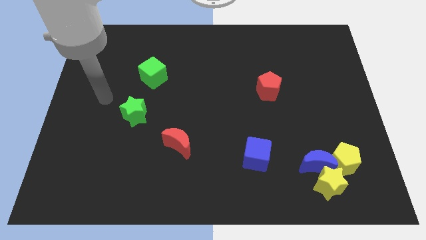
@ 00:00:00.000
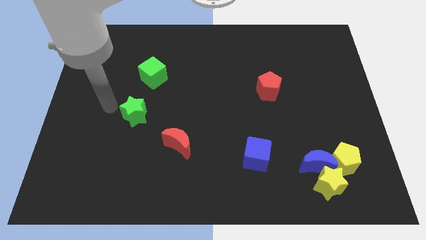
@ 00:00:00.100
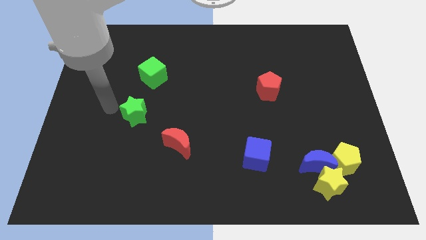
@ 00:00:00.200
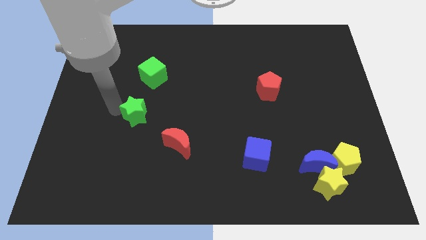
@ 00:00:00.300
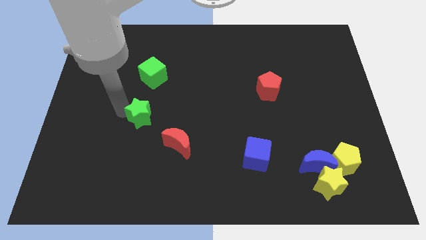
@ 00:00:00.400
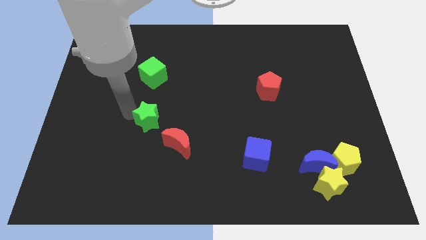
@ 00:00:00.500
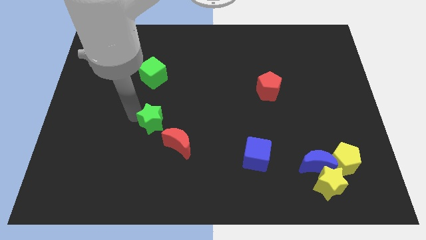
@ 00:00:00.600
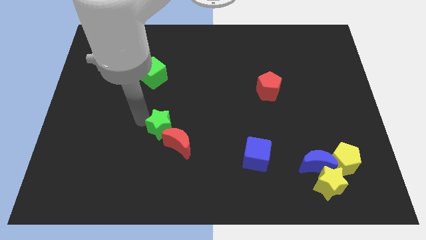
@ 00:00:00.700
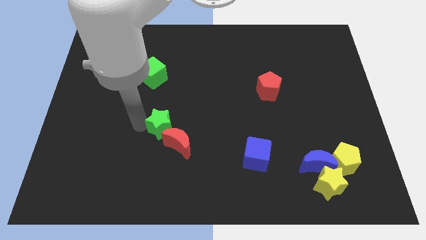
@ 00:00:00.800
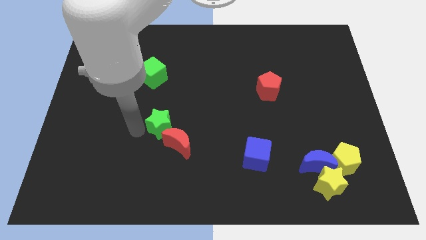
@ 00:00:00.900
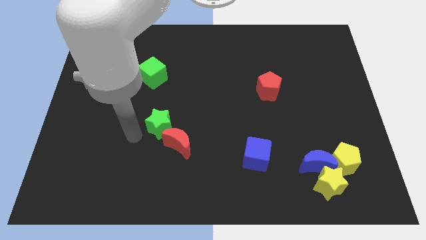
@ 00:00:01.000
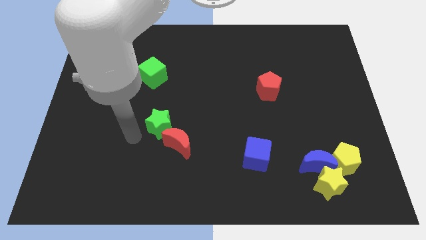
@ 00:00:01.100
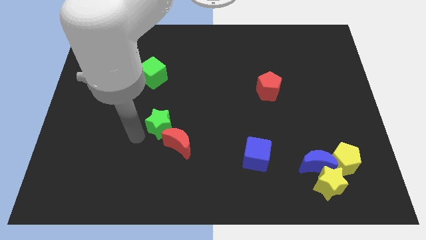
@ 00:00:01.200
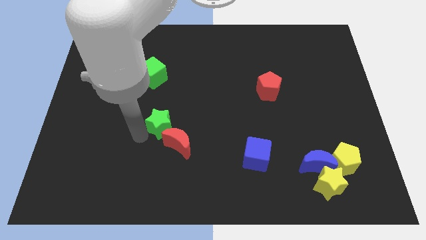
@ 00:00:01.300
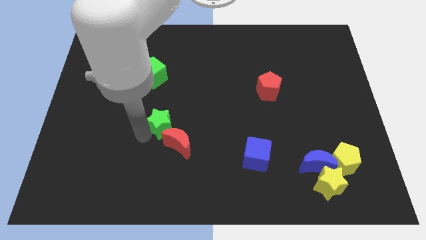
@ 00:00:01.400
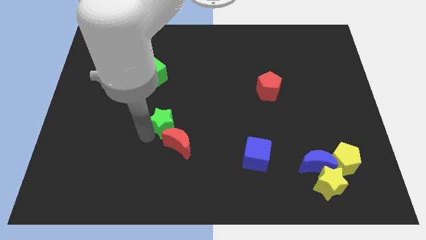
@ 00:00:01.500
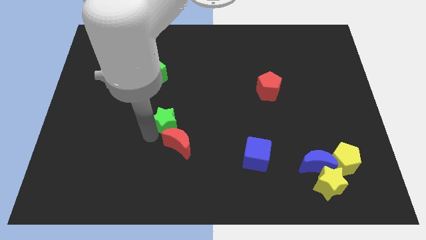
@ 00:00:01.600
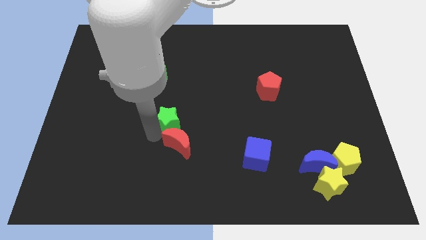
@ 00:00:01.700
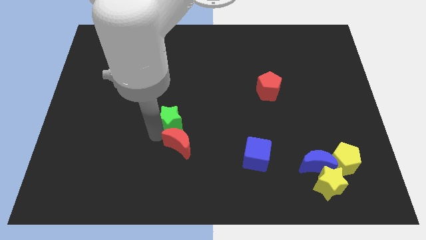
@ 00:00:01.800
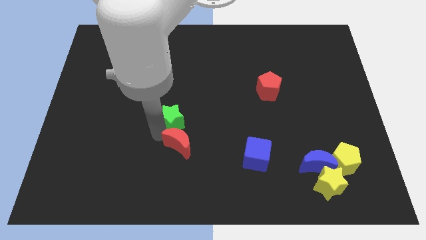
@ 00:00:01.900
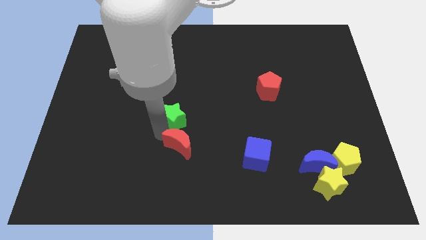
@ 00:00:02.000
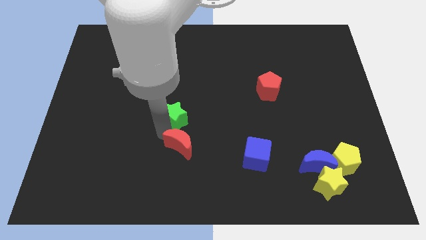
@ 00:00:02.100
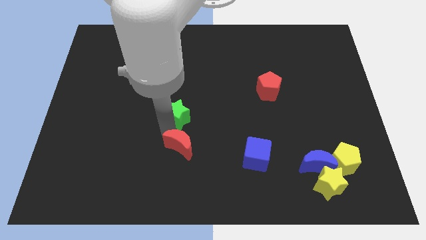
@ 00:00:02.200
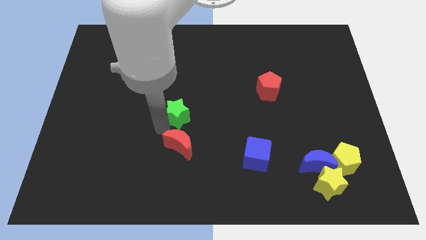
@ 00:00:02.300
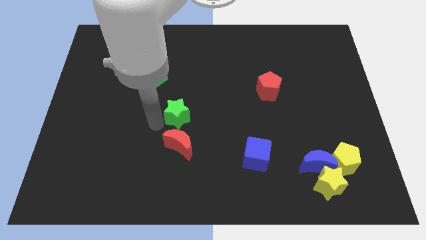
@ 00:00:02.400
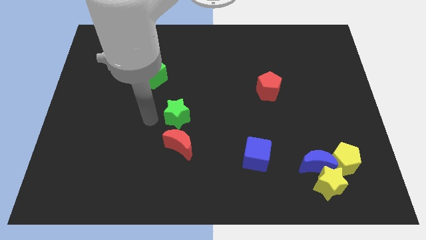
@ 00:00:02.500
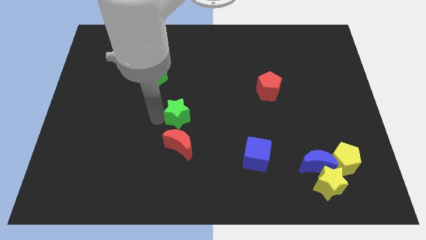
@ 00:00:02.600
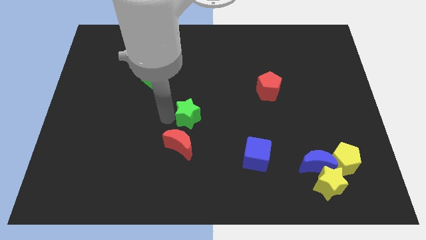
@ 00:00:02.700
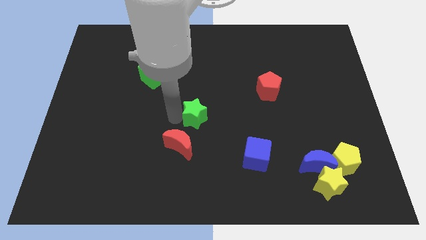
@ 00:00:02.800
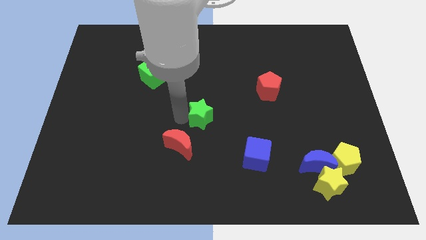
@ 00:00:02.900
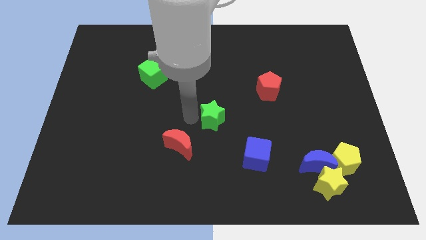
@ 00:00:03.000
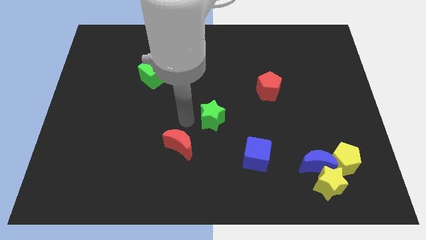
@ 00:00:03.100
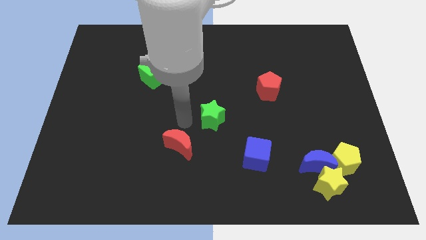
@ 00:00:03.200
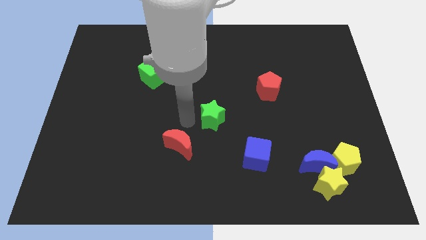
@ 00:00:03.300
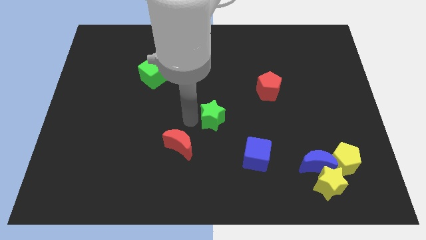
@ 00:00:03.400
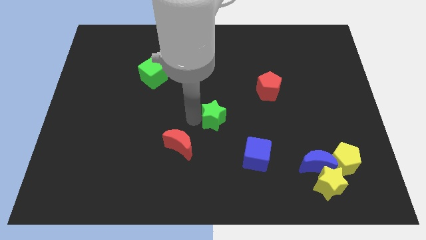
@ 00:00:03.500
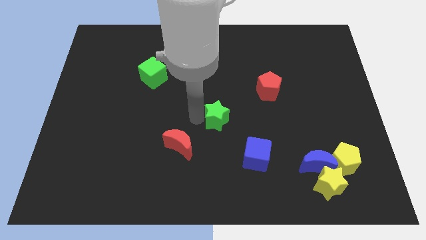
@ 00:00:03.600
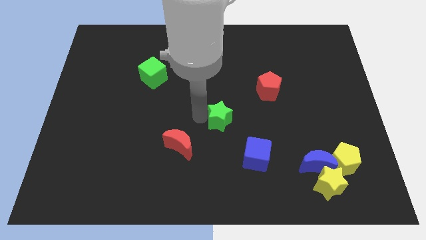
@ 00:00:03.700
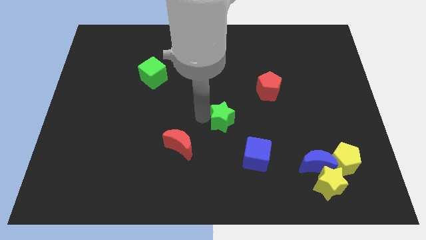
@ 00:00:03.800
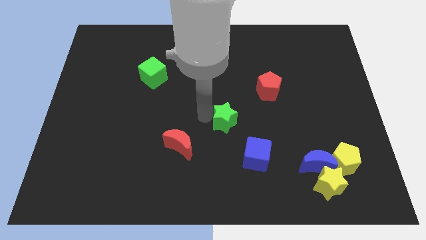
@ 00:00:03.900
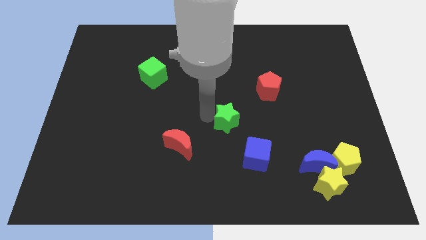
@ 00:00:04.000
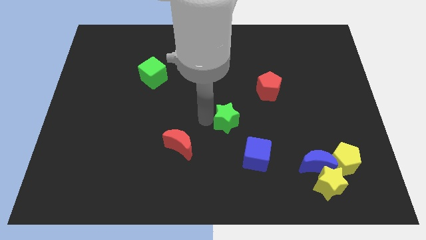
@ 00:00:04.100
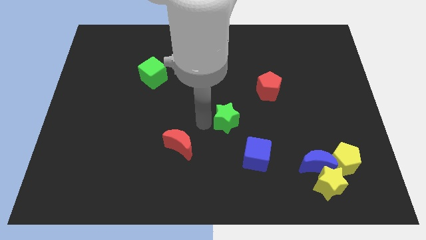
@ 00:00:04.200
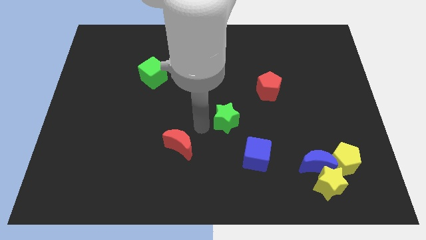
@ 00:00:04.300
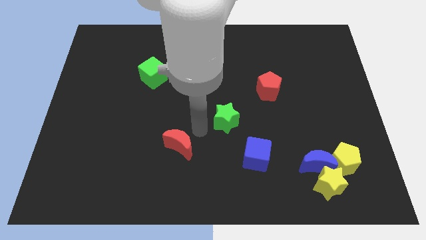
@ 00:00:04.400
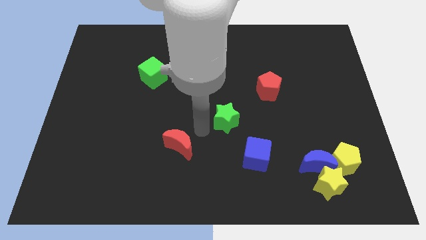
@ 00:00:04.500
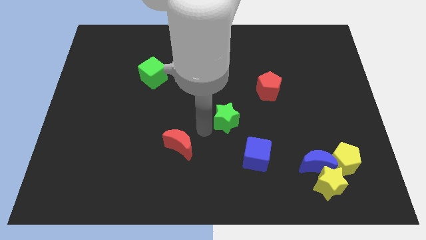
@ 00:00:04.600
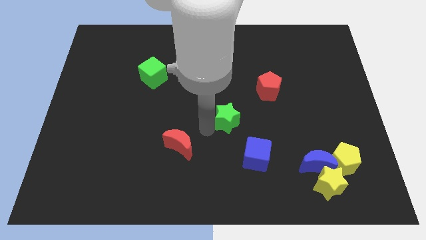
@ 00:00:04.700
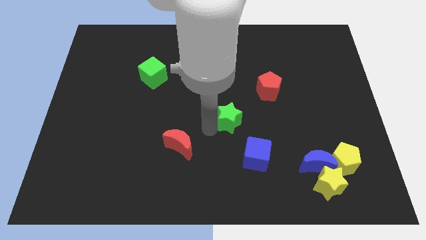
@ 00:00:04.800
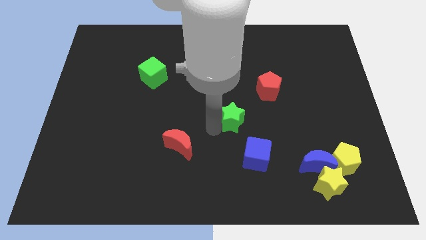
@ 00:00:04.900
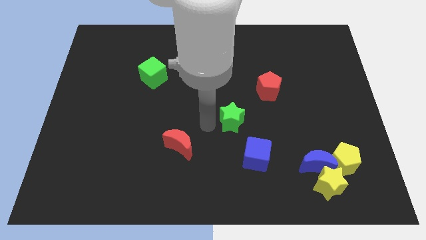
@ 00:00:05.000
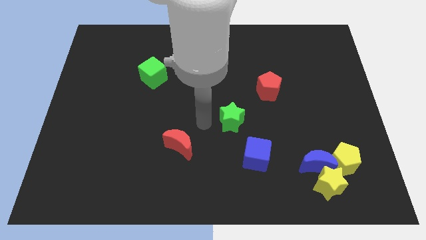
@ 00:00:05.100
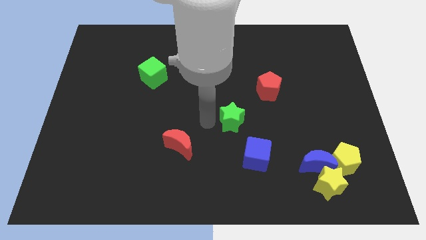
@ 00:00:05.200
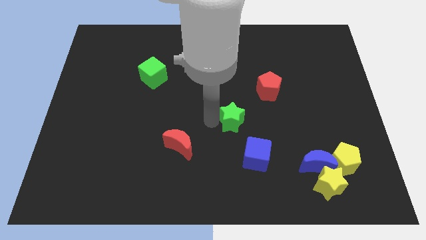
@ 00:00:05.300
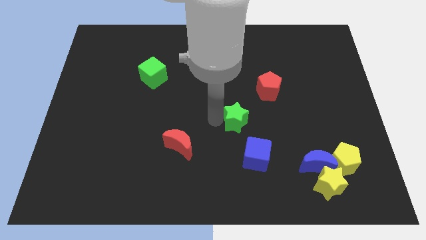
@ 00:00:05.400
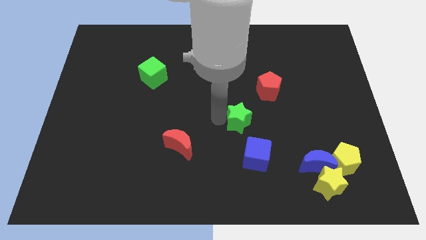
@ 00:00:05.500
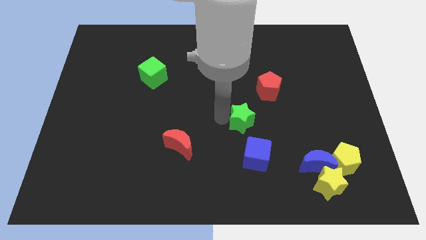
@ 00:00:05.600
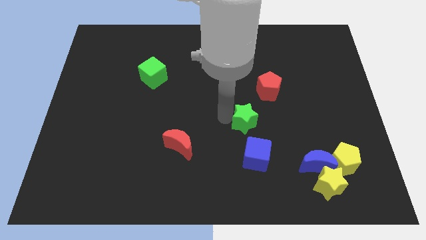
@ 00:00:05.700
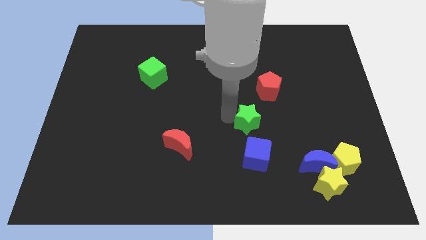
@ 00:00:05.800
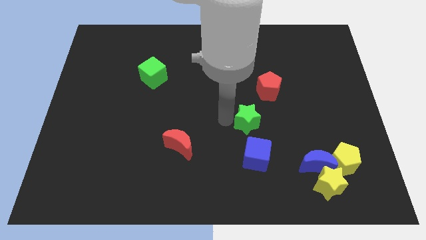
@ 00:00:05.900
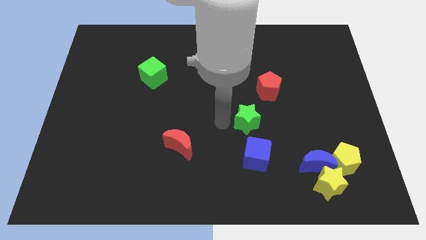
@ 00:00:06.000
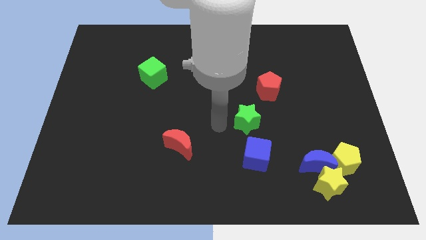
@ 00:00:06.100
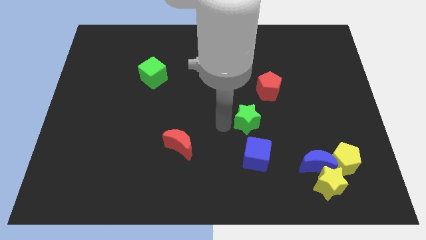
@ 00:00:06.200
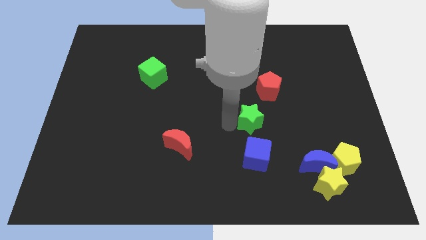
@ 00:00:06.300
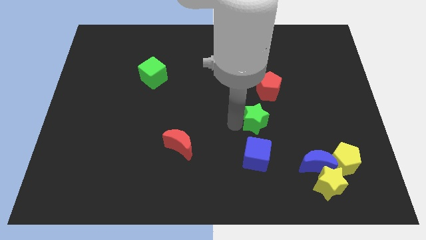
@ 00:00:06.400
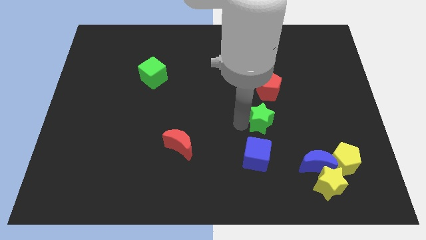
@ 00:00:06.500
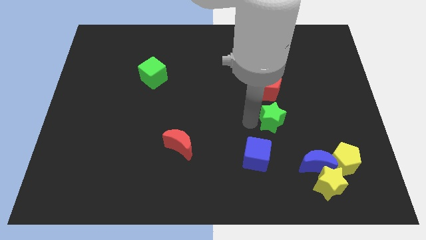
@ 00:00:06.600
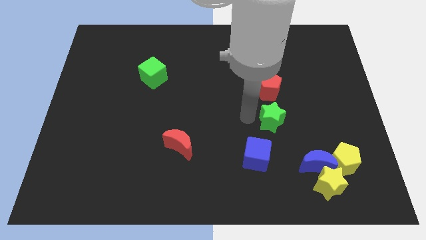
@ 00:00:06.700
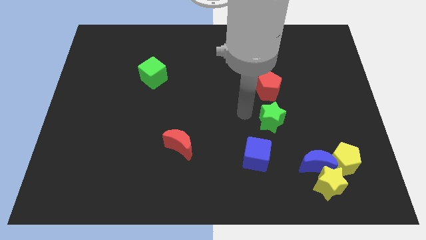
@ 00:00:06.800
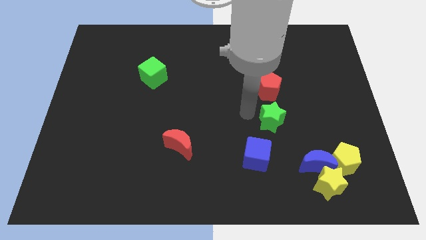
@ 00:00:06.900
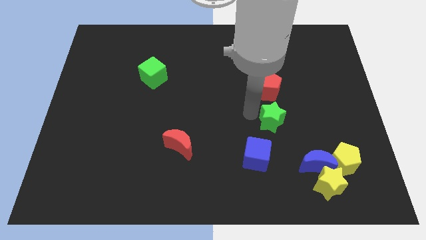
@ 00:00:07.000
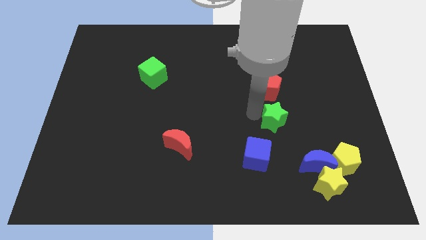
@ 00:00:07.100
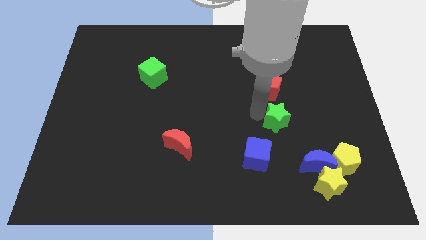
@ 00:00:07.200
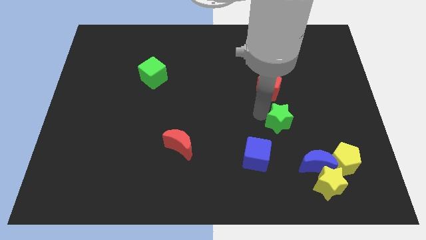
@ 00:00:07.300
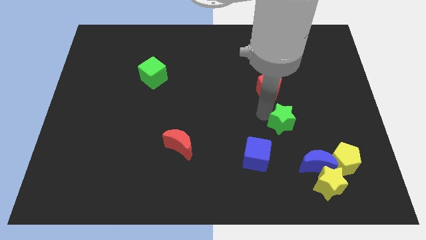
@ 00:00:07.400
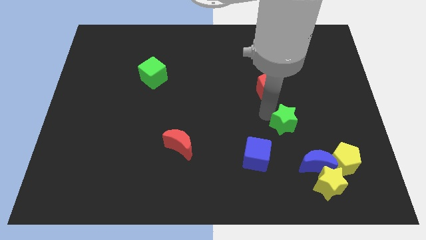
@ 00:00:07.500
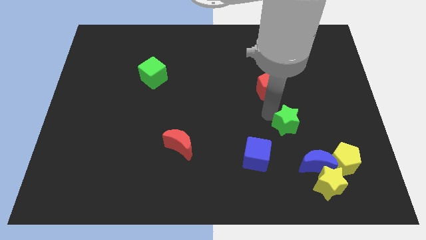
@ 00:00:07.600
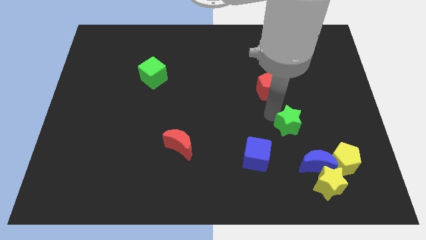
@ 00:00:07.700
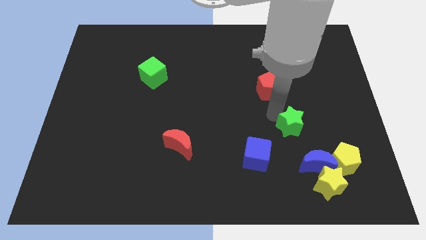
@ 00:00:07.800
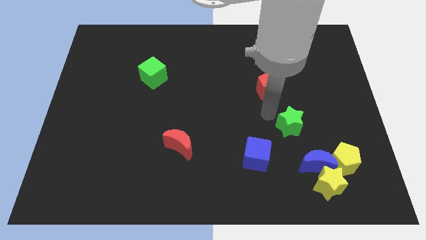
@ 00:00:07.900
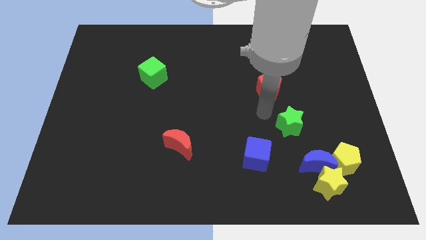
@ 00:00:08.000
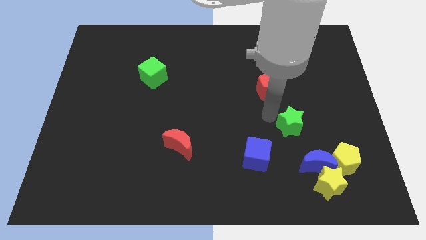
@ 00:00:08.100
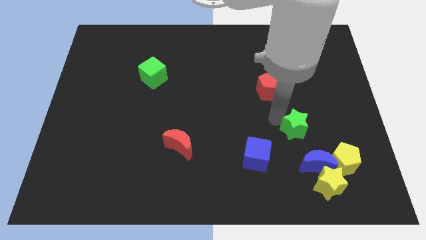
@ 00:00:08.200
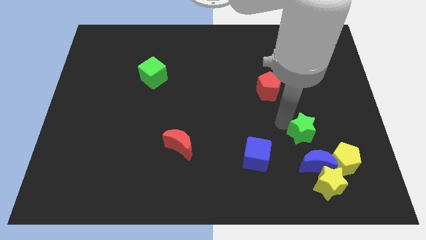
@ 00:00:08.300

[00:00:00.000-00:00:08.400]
put the green star to the top side of the yellow star
